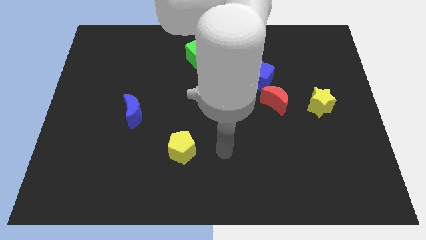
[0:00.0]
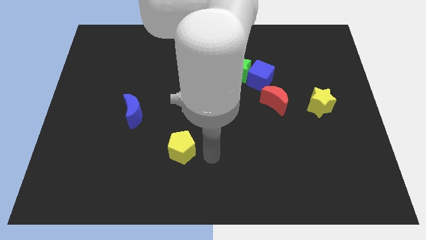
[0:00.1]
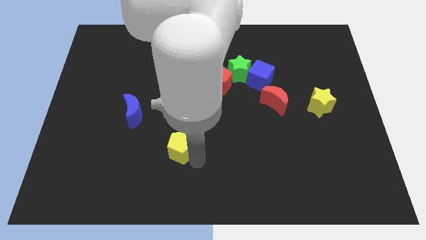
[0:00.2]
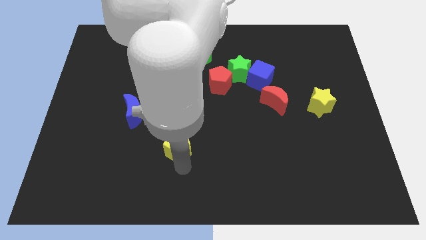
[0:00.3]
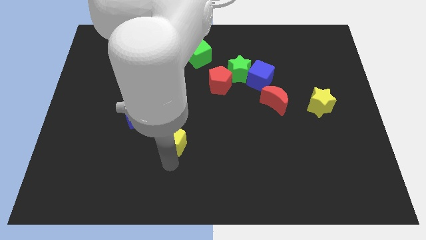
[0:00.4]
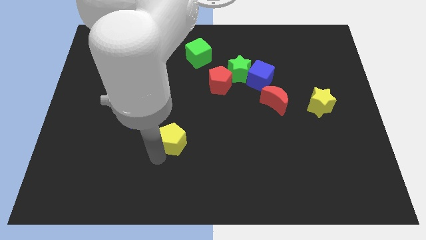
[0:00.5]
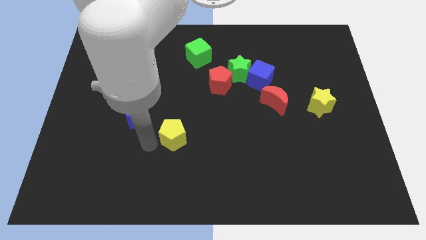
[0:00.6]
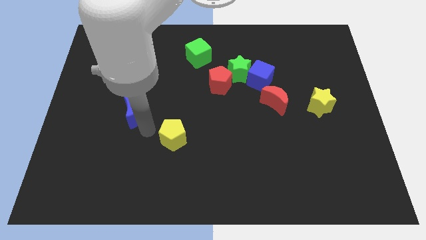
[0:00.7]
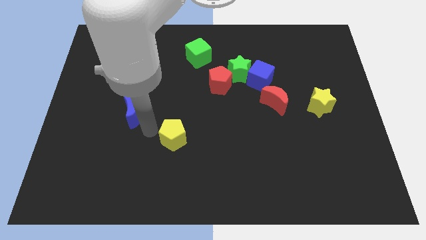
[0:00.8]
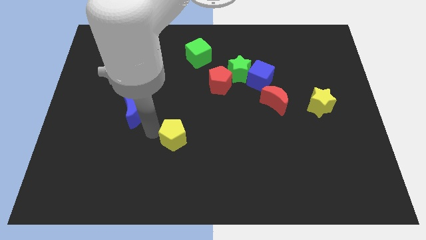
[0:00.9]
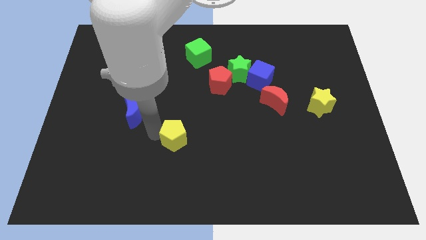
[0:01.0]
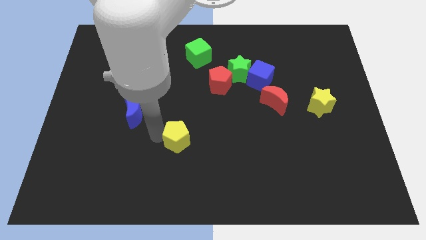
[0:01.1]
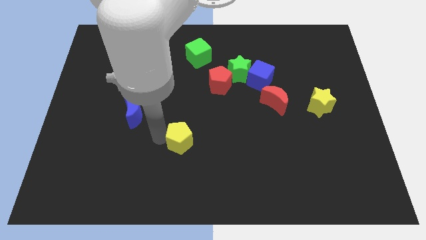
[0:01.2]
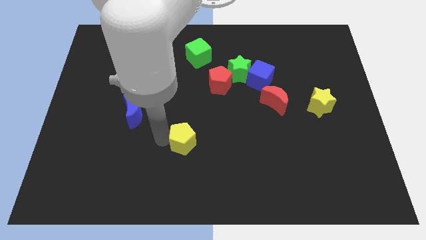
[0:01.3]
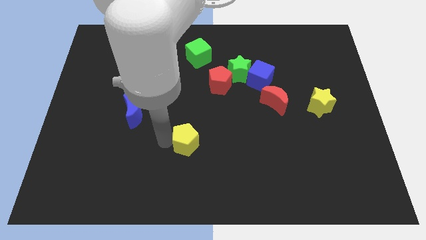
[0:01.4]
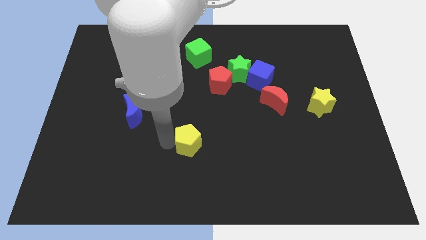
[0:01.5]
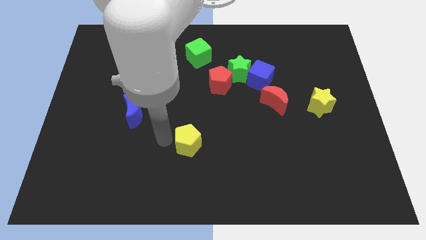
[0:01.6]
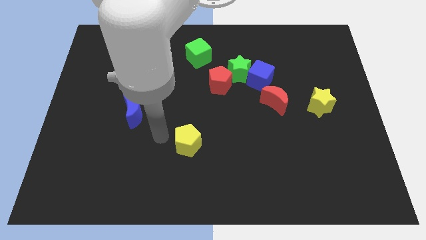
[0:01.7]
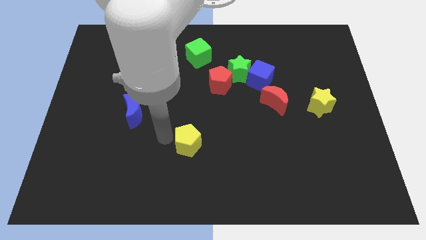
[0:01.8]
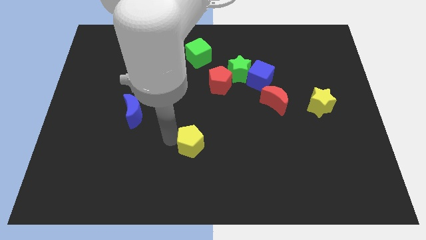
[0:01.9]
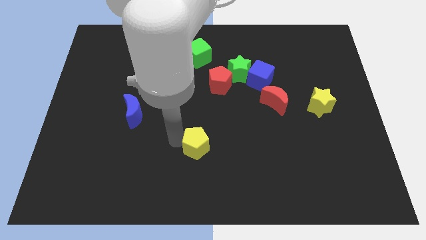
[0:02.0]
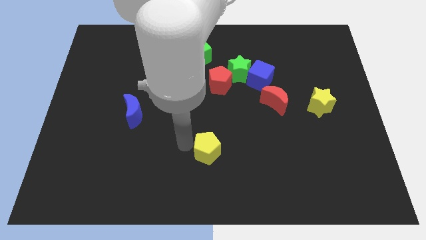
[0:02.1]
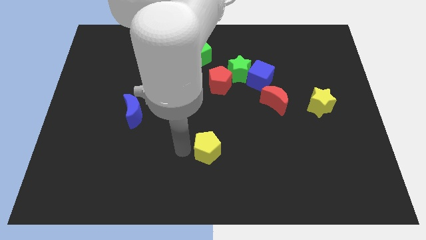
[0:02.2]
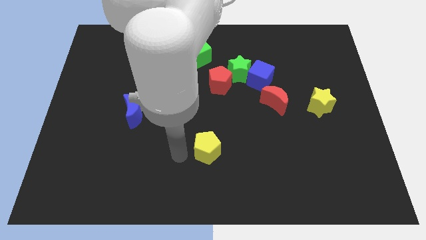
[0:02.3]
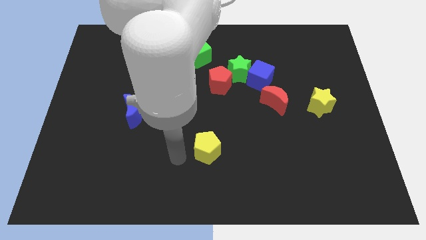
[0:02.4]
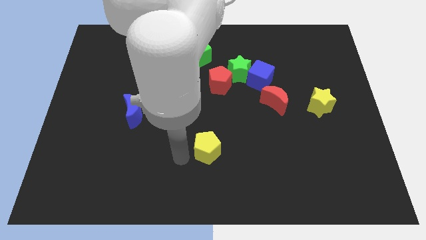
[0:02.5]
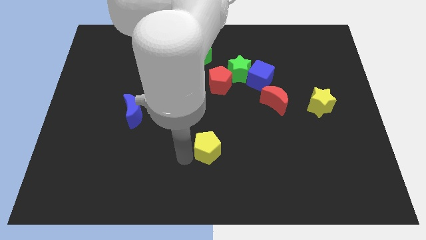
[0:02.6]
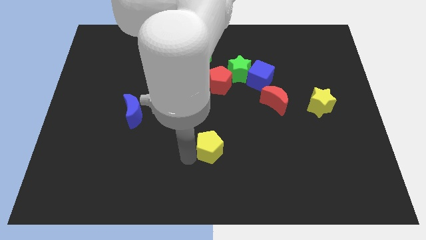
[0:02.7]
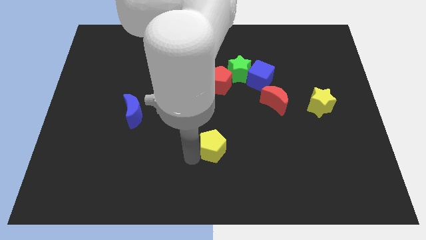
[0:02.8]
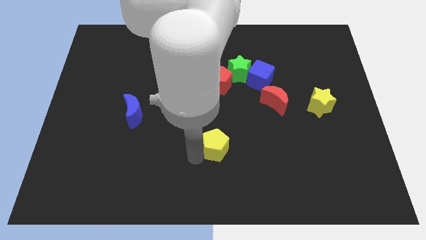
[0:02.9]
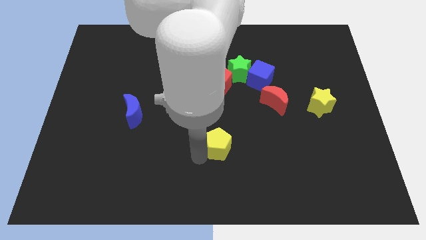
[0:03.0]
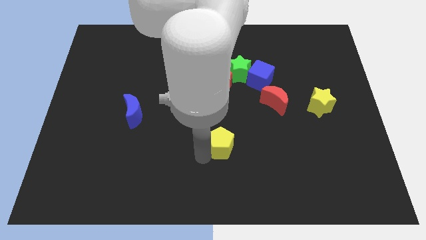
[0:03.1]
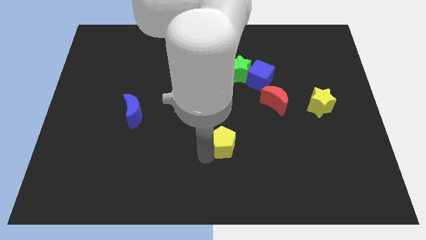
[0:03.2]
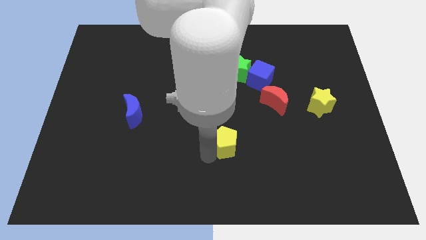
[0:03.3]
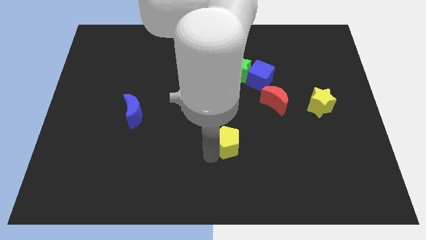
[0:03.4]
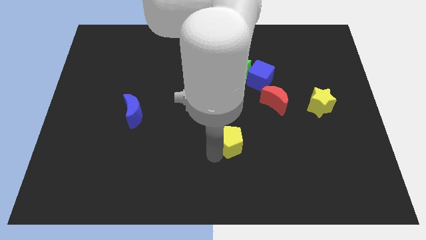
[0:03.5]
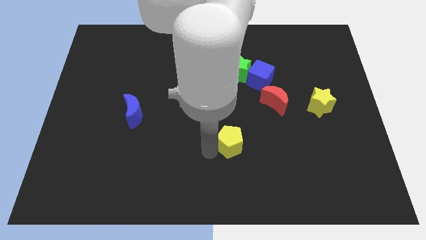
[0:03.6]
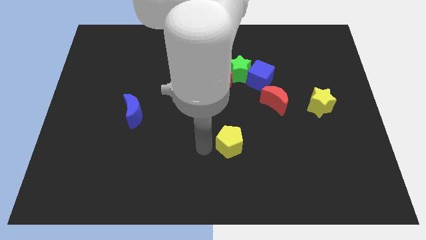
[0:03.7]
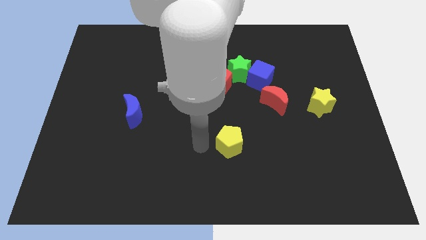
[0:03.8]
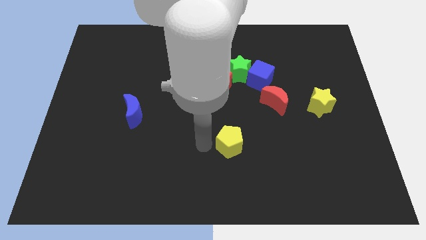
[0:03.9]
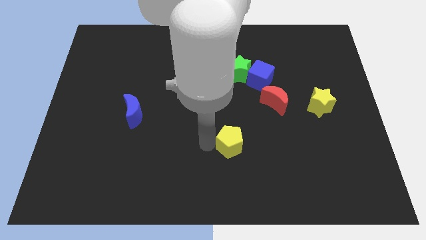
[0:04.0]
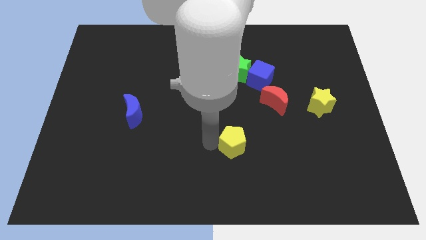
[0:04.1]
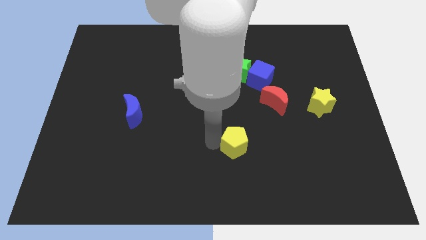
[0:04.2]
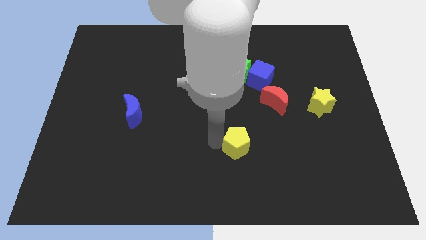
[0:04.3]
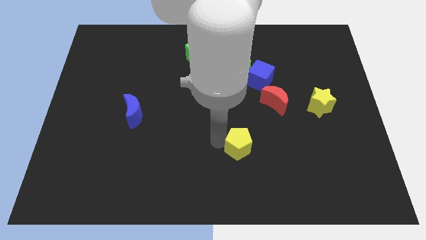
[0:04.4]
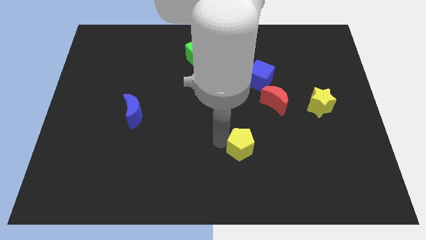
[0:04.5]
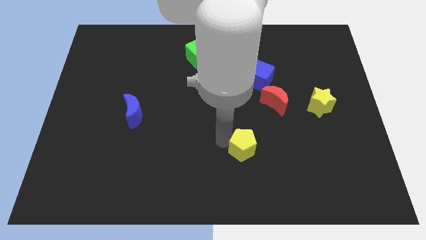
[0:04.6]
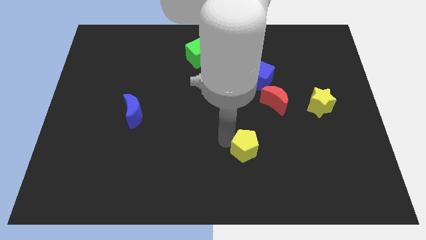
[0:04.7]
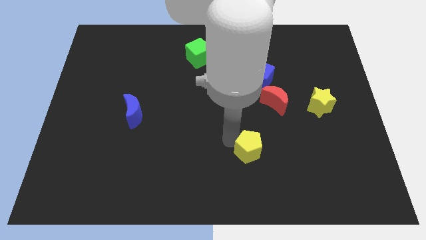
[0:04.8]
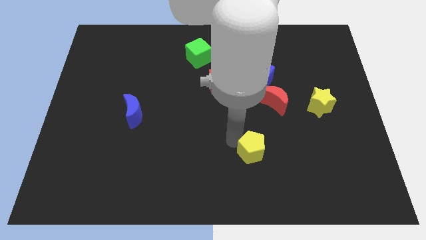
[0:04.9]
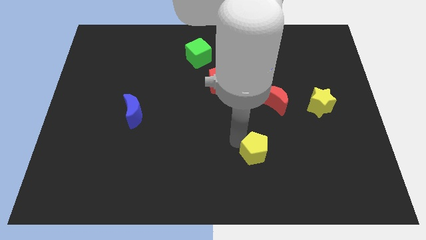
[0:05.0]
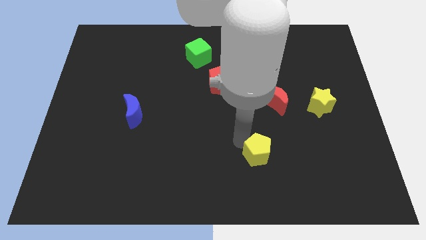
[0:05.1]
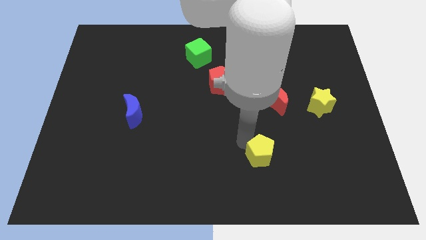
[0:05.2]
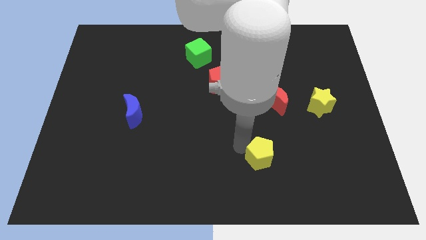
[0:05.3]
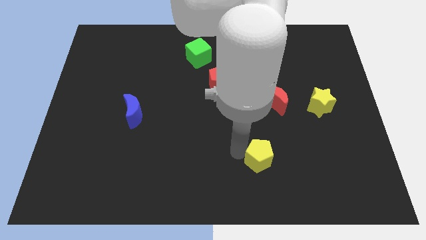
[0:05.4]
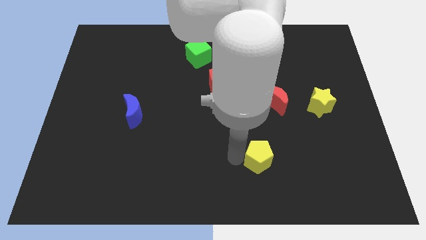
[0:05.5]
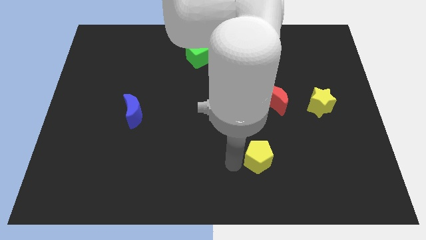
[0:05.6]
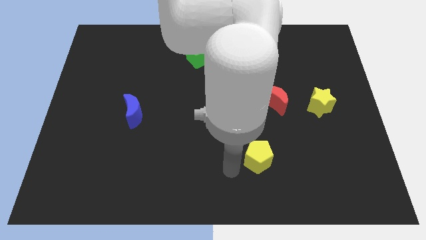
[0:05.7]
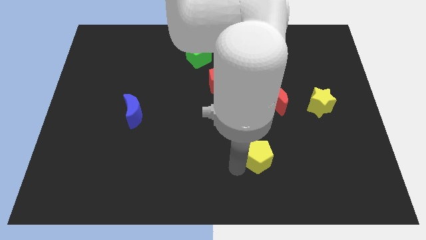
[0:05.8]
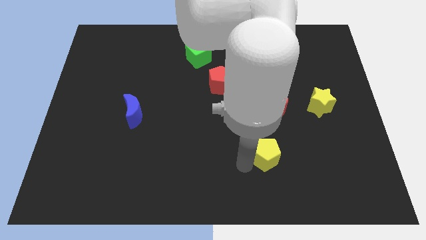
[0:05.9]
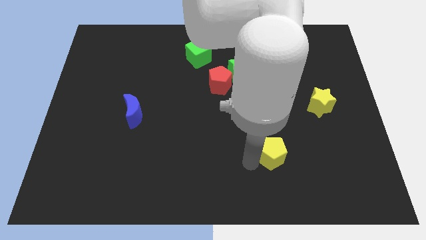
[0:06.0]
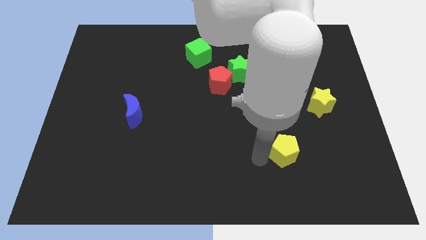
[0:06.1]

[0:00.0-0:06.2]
move the yellow pentagon right

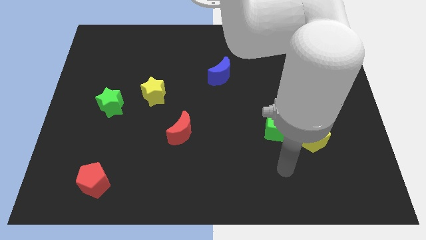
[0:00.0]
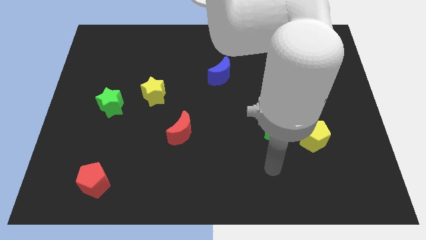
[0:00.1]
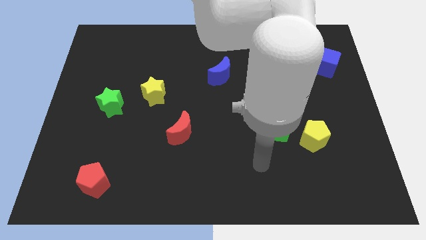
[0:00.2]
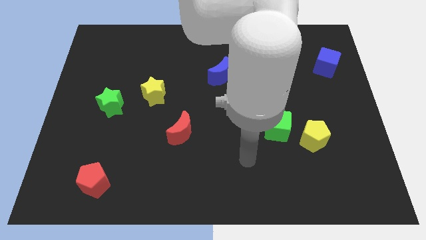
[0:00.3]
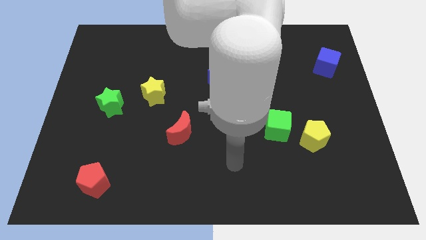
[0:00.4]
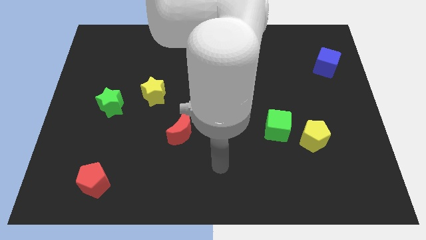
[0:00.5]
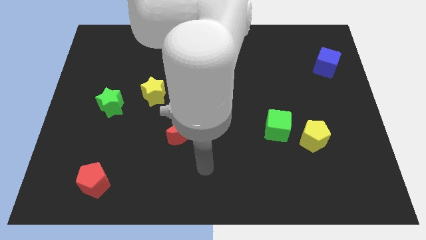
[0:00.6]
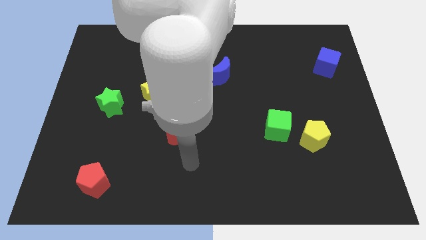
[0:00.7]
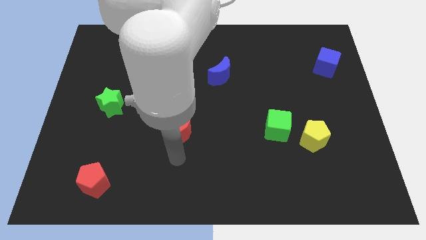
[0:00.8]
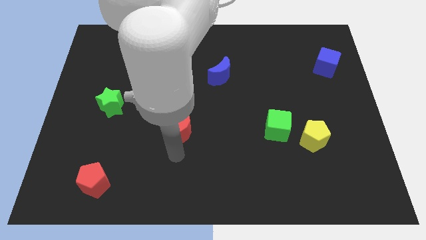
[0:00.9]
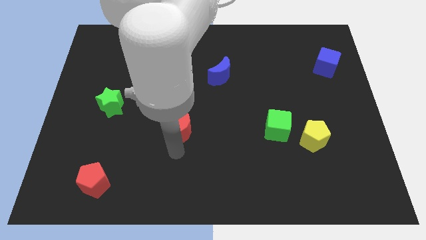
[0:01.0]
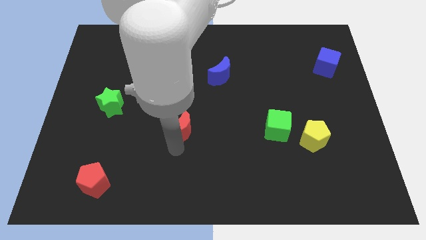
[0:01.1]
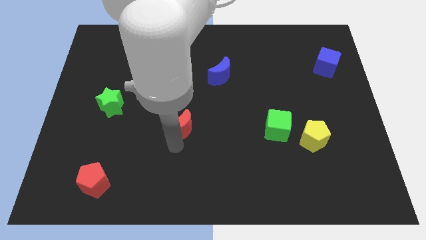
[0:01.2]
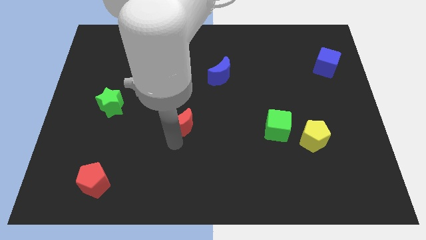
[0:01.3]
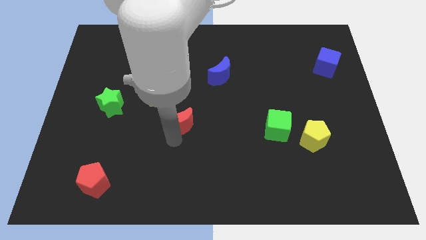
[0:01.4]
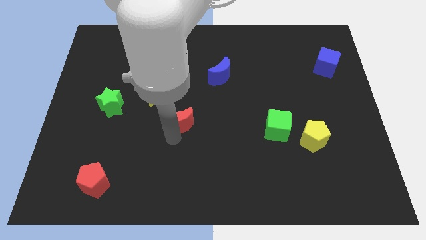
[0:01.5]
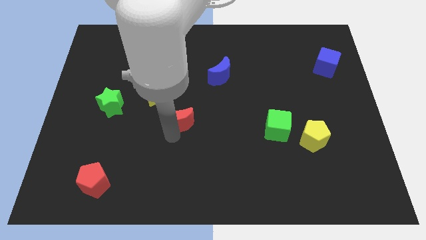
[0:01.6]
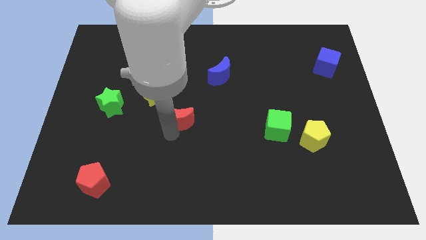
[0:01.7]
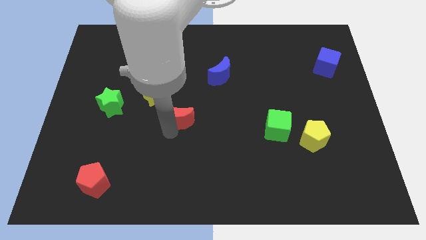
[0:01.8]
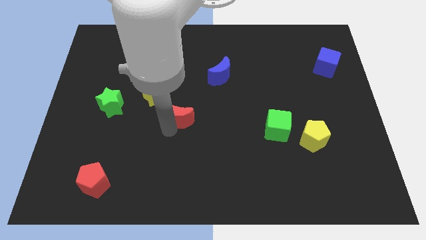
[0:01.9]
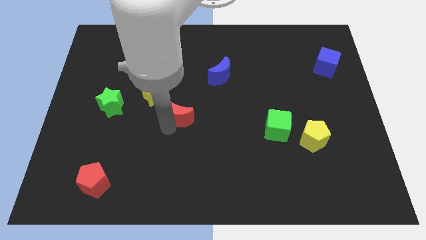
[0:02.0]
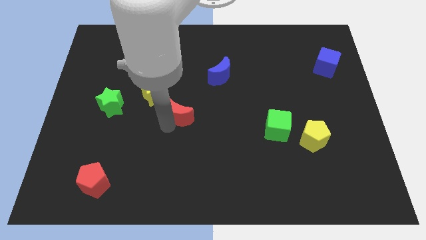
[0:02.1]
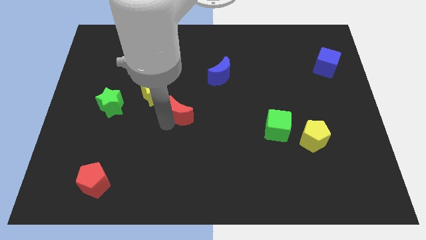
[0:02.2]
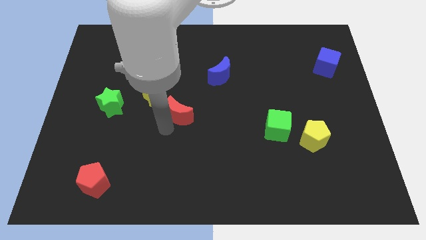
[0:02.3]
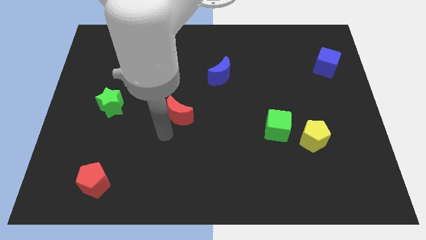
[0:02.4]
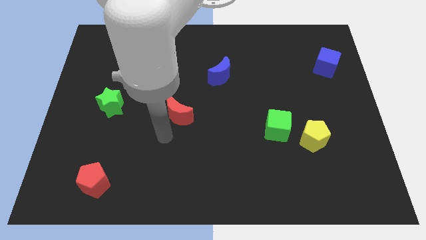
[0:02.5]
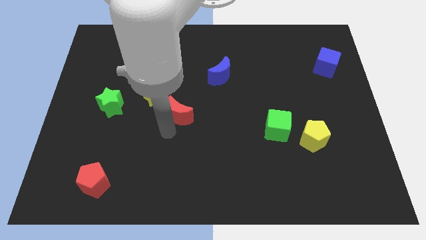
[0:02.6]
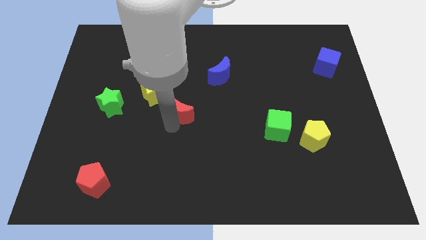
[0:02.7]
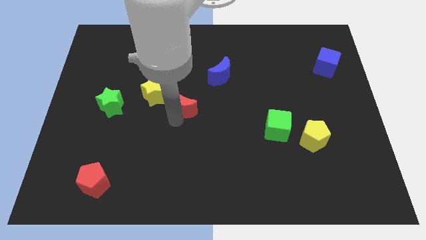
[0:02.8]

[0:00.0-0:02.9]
slightly slide the red moon up
